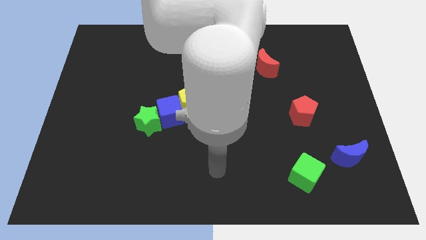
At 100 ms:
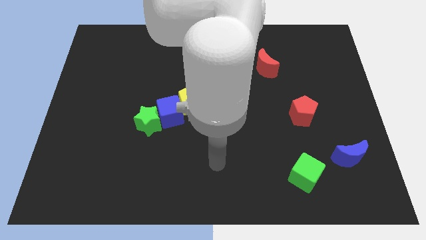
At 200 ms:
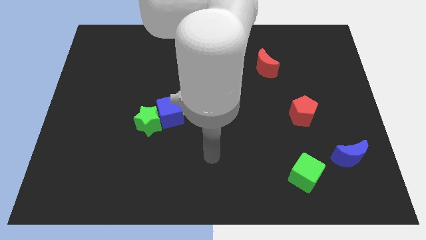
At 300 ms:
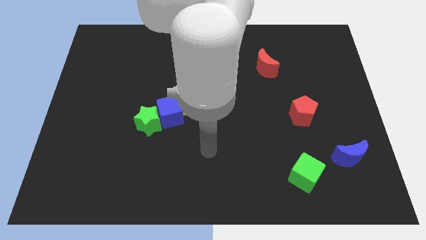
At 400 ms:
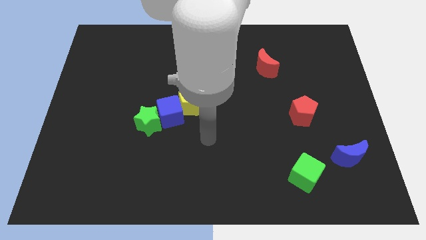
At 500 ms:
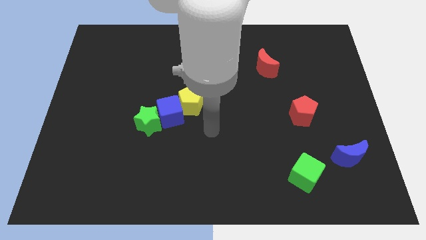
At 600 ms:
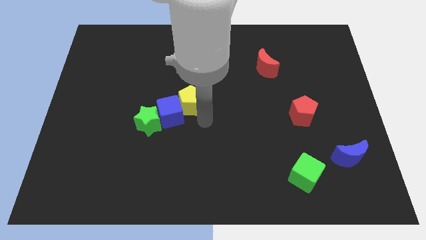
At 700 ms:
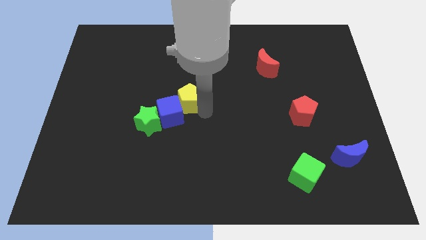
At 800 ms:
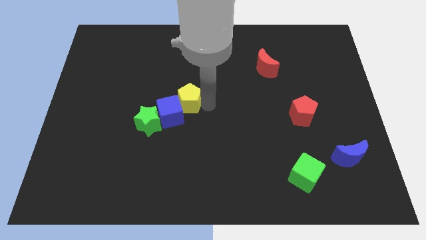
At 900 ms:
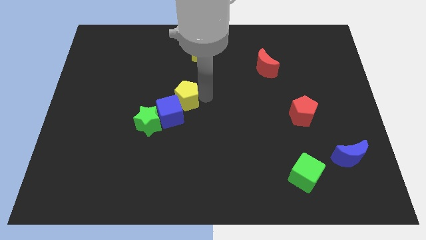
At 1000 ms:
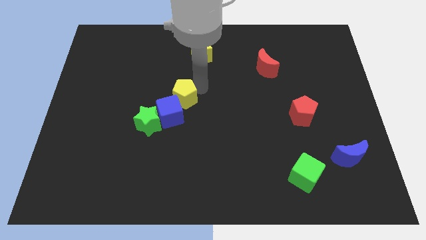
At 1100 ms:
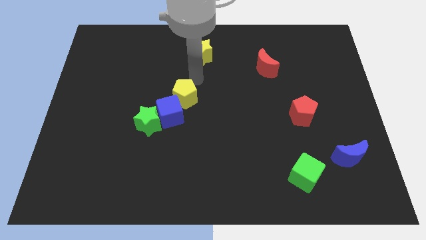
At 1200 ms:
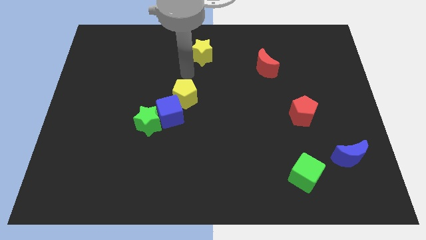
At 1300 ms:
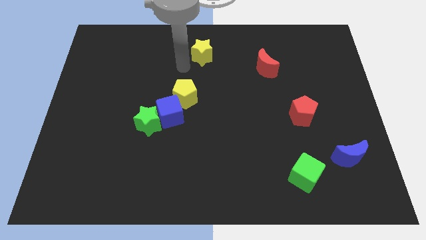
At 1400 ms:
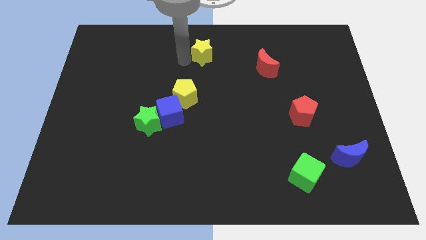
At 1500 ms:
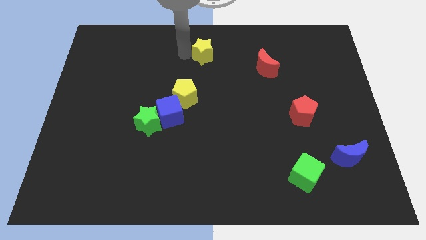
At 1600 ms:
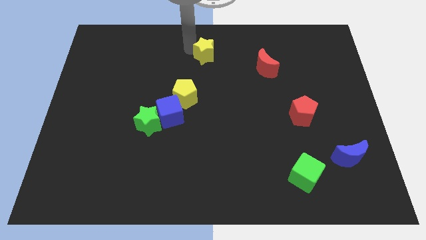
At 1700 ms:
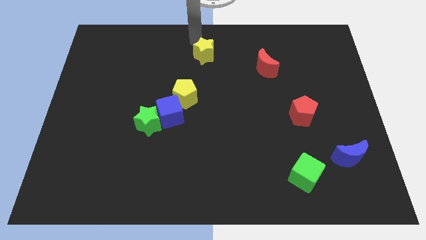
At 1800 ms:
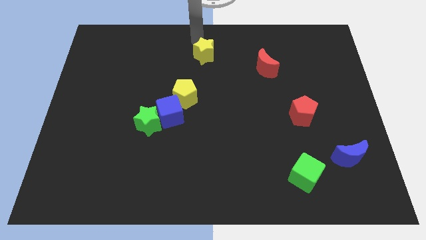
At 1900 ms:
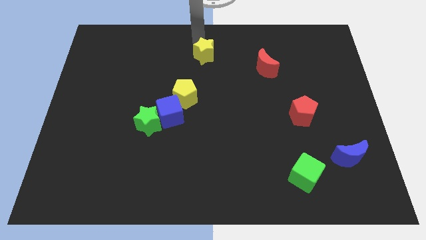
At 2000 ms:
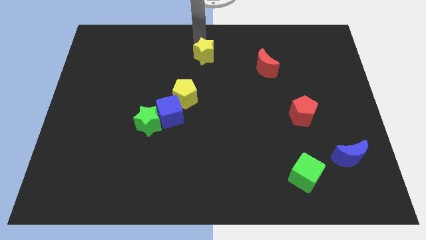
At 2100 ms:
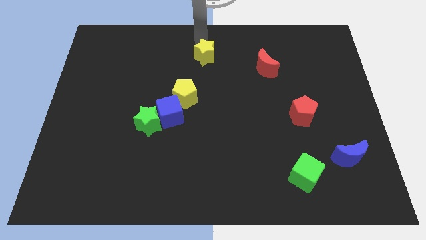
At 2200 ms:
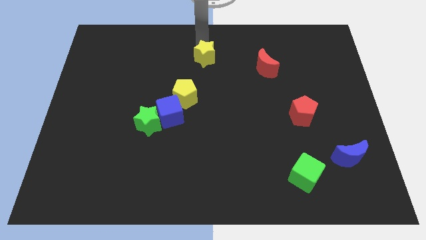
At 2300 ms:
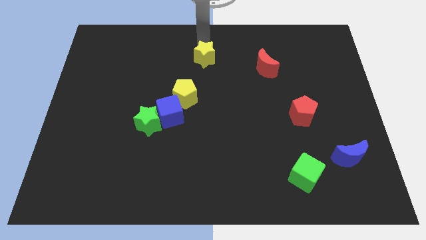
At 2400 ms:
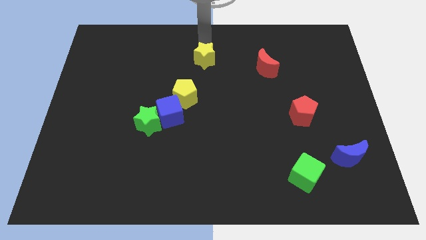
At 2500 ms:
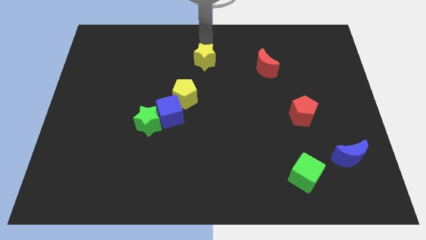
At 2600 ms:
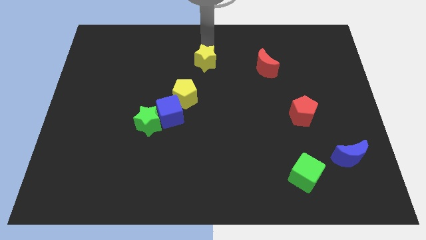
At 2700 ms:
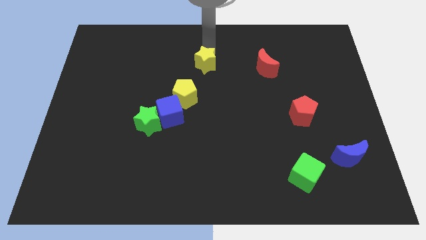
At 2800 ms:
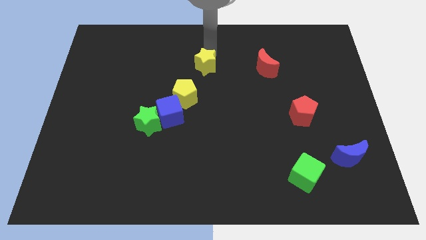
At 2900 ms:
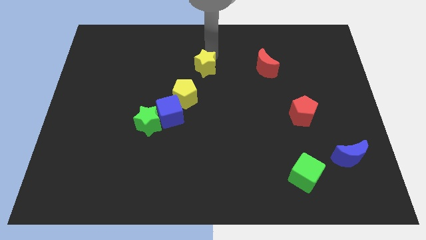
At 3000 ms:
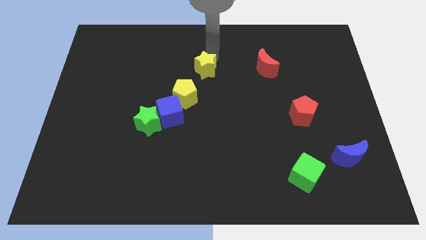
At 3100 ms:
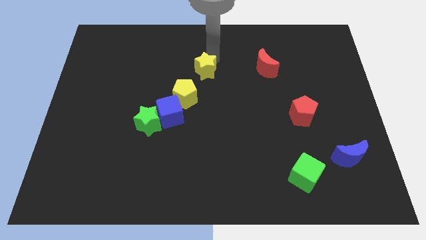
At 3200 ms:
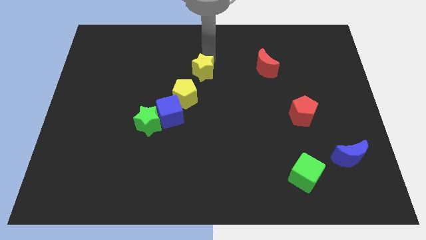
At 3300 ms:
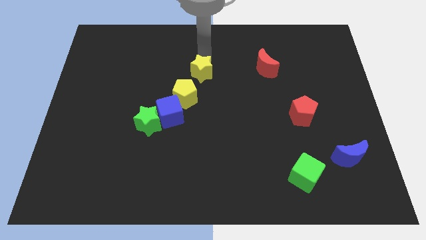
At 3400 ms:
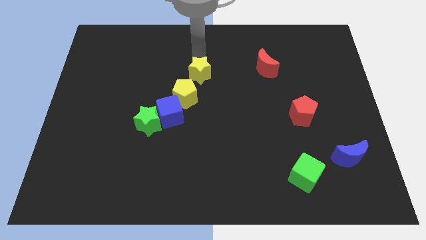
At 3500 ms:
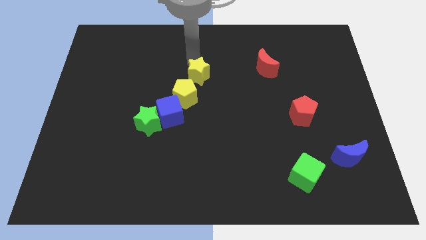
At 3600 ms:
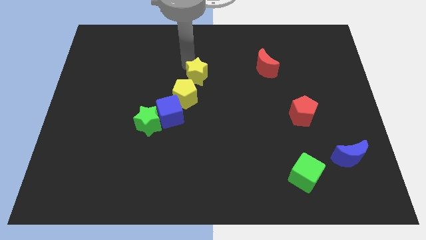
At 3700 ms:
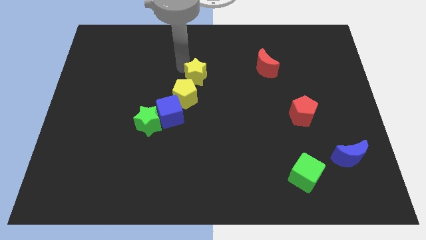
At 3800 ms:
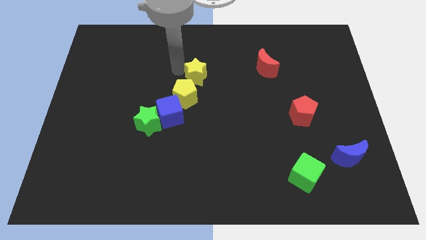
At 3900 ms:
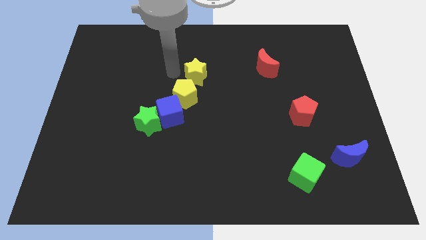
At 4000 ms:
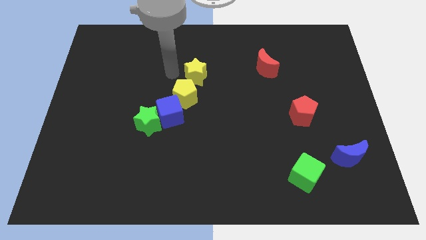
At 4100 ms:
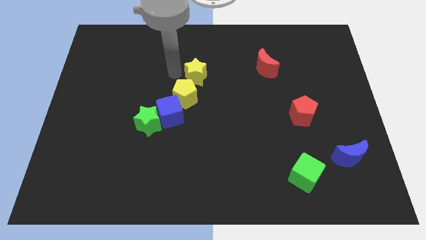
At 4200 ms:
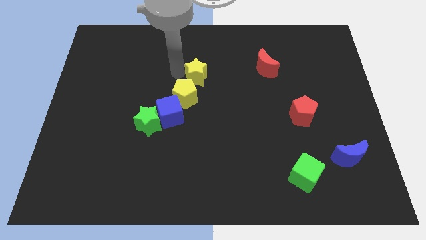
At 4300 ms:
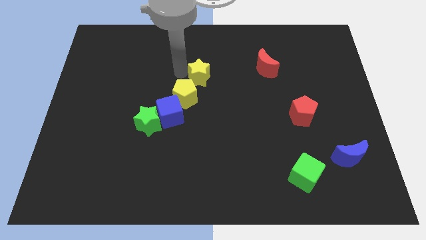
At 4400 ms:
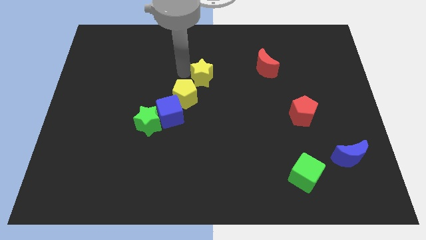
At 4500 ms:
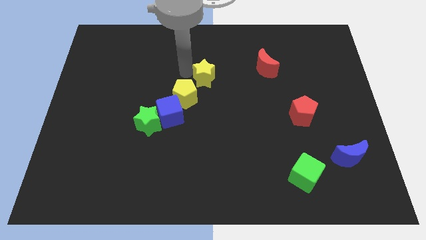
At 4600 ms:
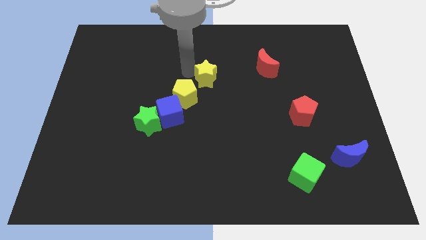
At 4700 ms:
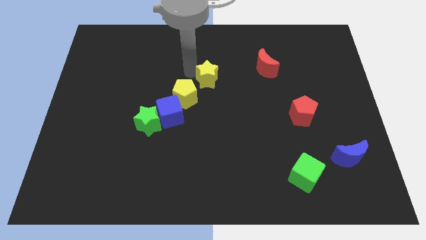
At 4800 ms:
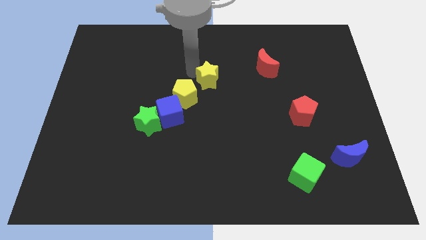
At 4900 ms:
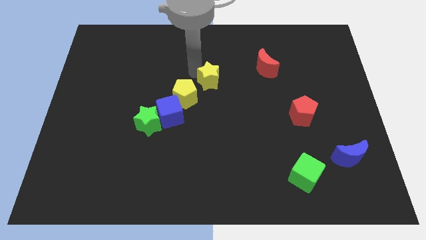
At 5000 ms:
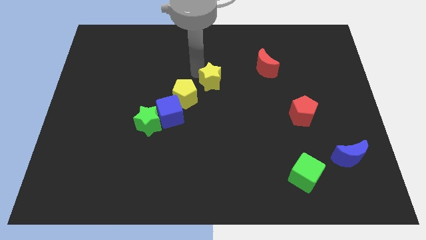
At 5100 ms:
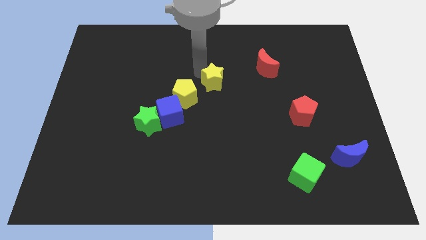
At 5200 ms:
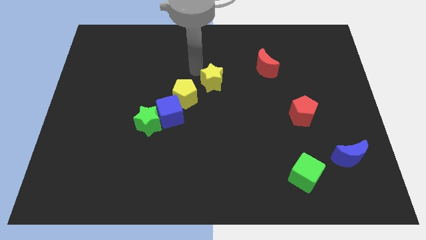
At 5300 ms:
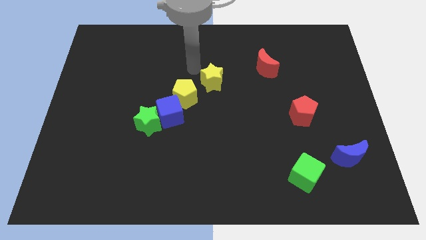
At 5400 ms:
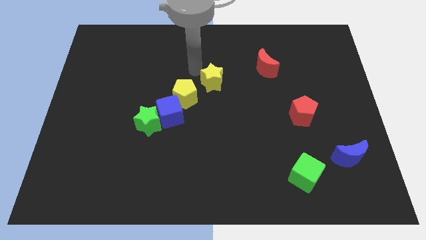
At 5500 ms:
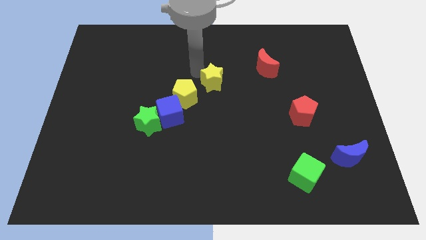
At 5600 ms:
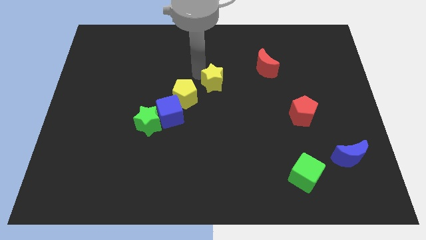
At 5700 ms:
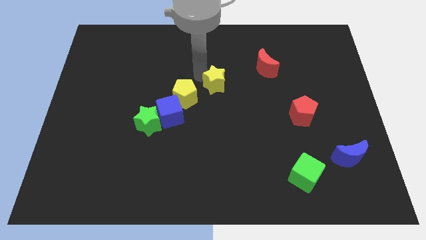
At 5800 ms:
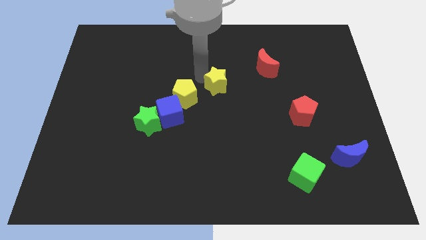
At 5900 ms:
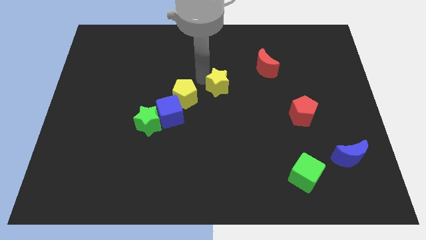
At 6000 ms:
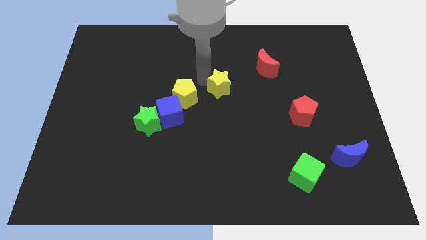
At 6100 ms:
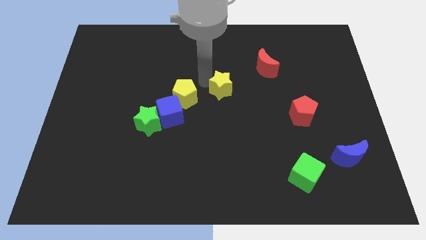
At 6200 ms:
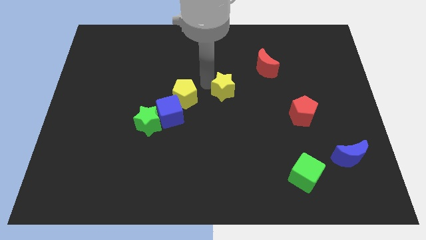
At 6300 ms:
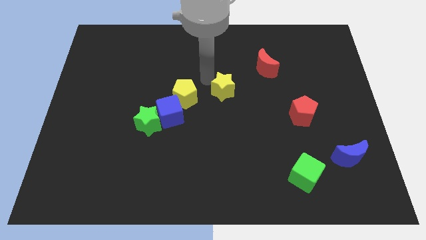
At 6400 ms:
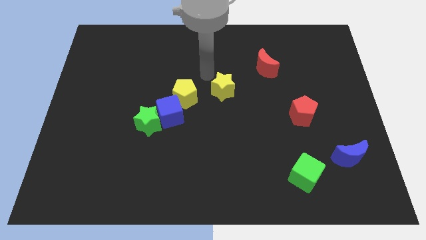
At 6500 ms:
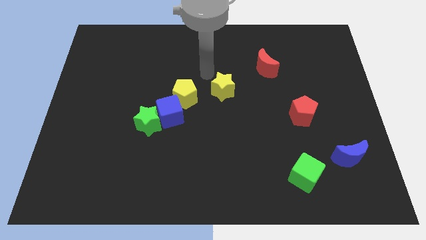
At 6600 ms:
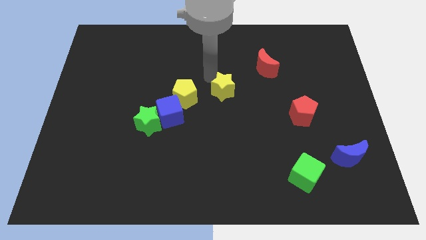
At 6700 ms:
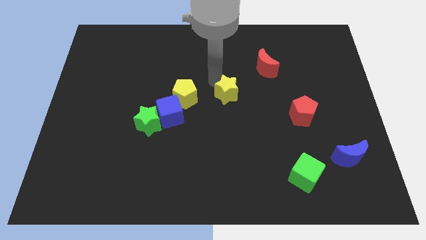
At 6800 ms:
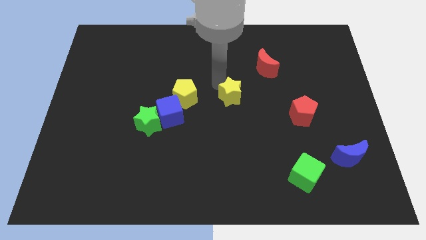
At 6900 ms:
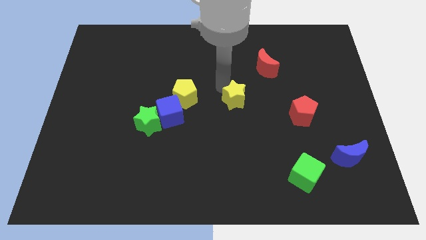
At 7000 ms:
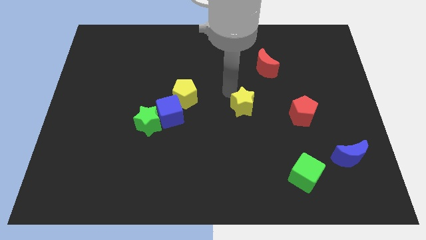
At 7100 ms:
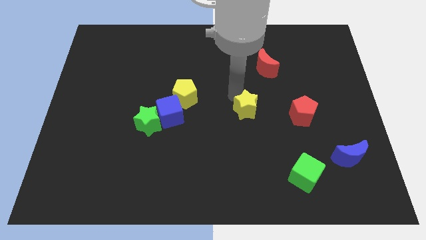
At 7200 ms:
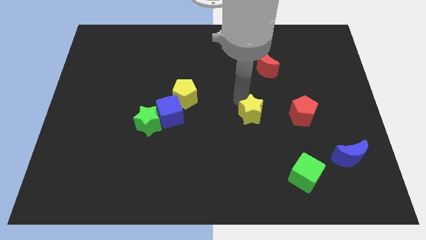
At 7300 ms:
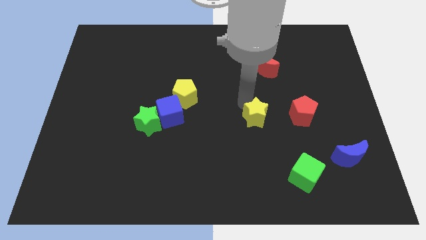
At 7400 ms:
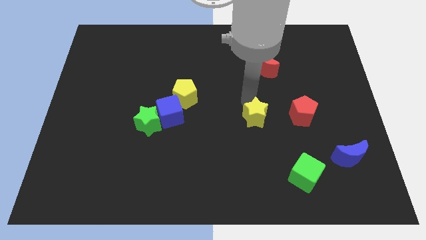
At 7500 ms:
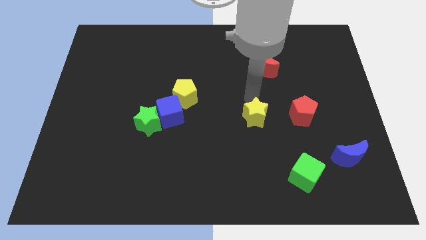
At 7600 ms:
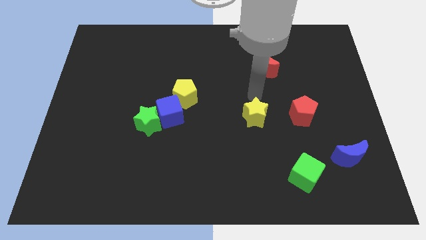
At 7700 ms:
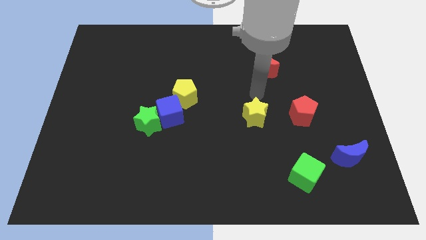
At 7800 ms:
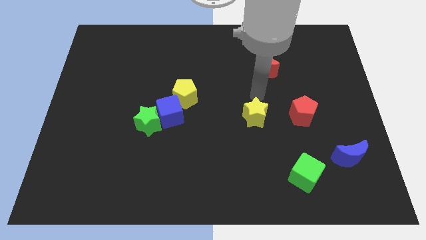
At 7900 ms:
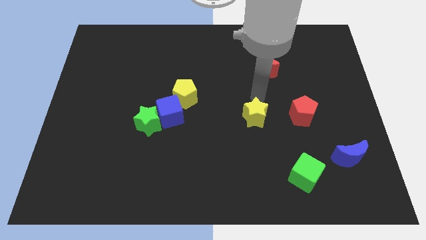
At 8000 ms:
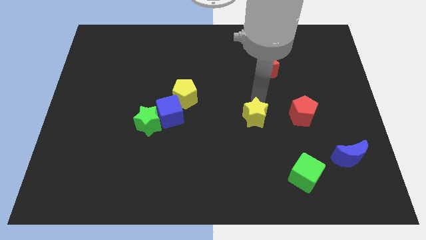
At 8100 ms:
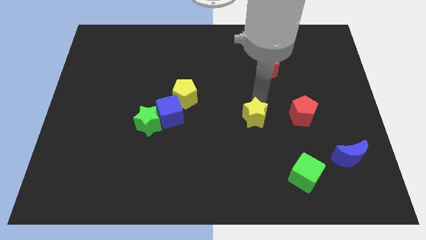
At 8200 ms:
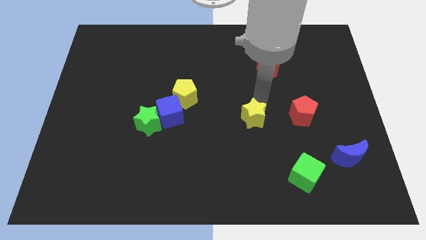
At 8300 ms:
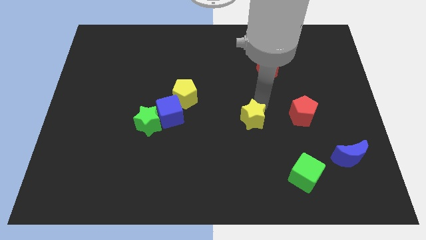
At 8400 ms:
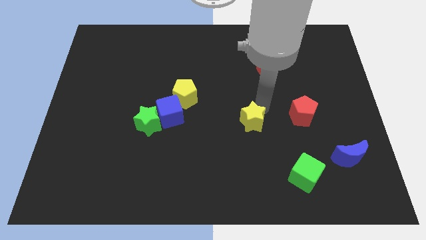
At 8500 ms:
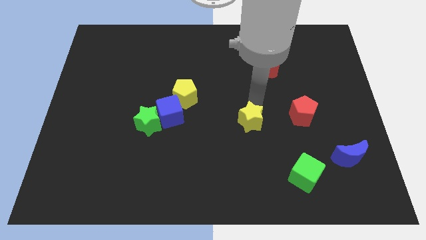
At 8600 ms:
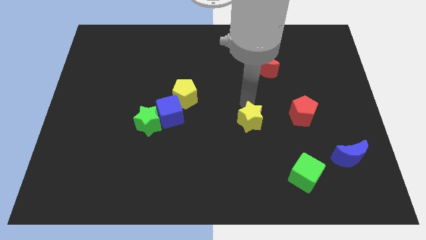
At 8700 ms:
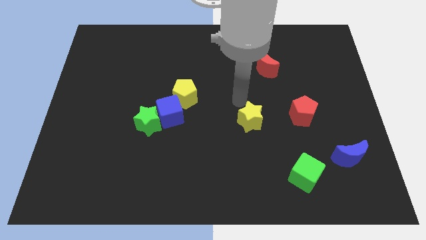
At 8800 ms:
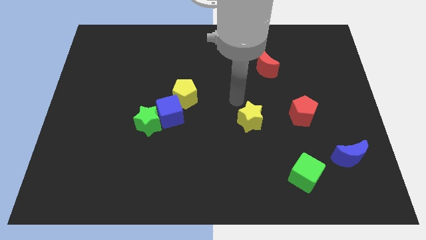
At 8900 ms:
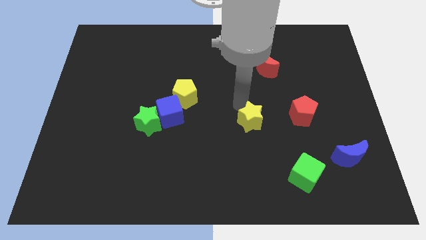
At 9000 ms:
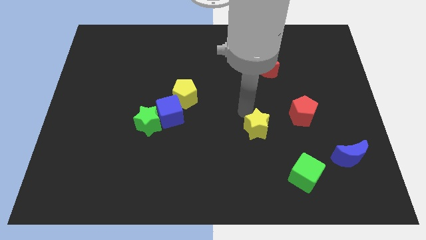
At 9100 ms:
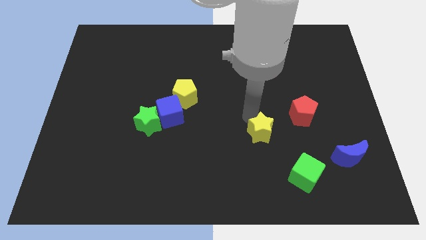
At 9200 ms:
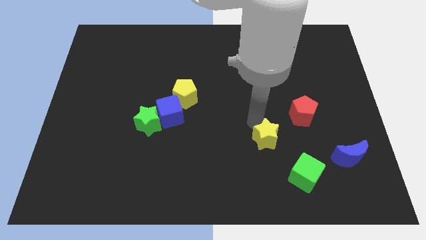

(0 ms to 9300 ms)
push the yellow star diagonally up and to the left of the green cube
